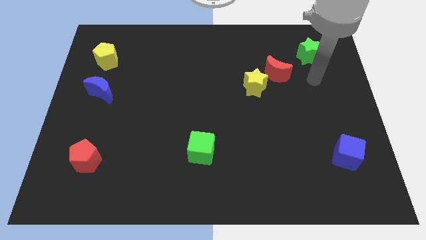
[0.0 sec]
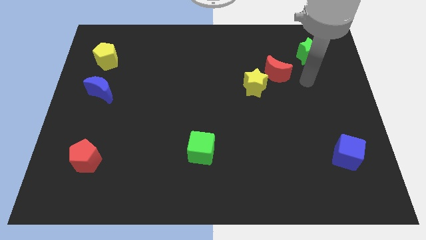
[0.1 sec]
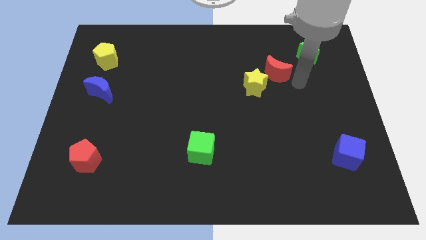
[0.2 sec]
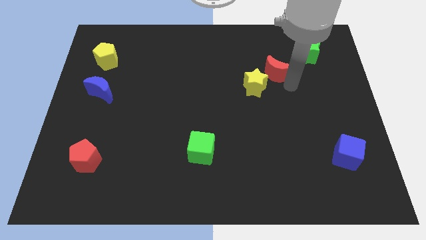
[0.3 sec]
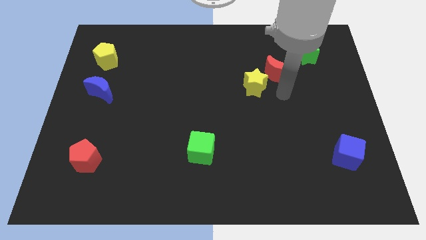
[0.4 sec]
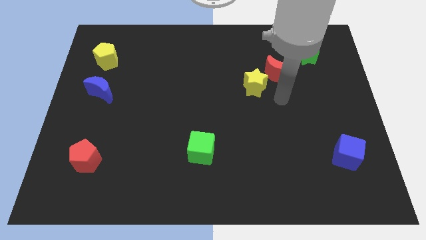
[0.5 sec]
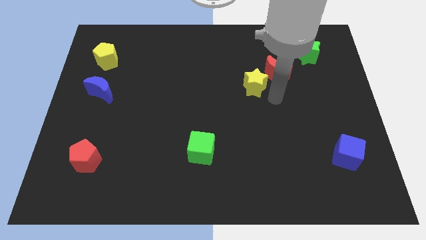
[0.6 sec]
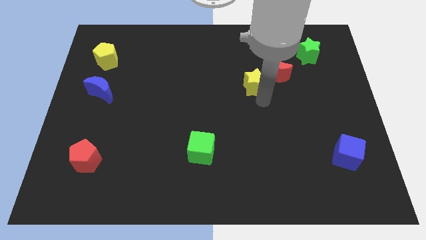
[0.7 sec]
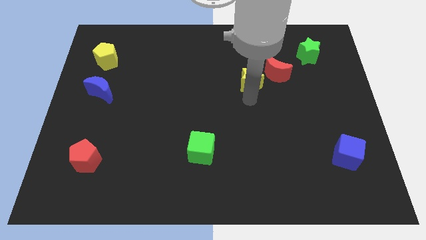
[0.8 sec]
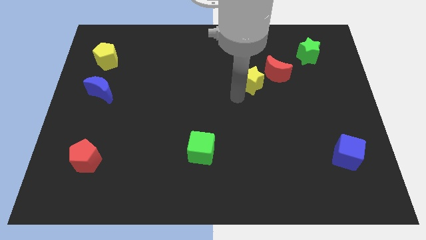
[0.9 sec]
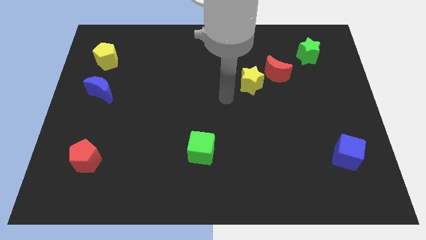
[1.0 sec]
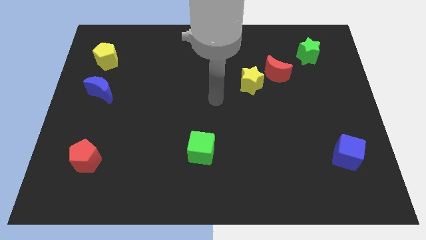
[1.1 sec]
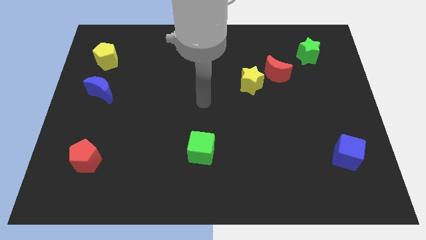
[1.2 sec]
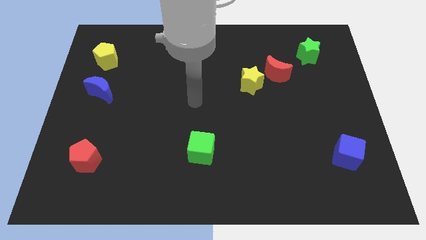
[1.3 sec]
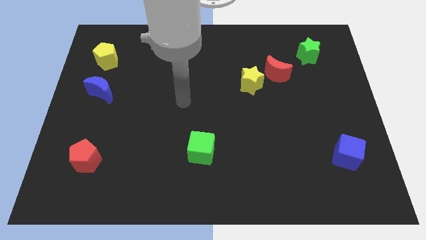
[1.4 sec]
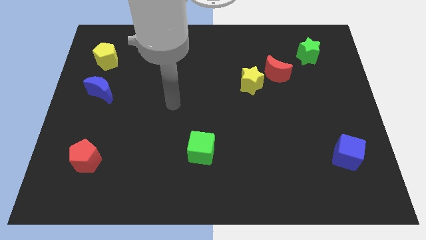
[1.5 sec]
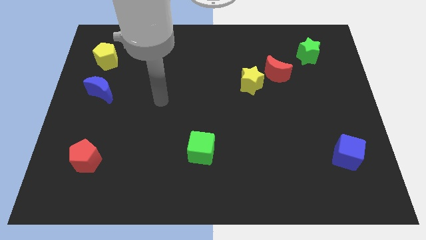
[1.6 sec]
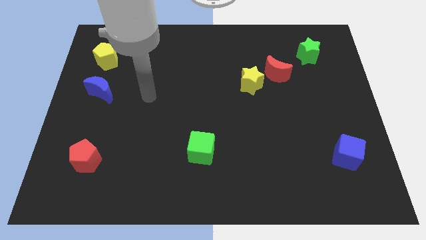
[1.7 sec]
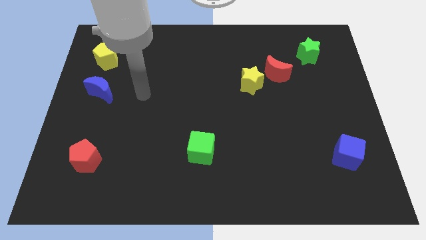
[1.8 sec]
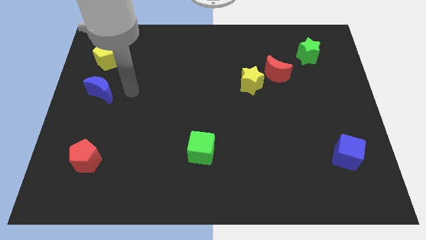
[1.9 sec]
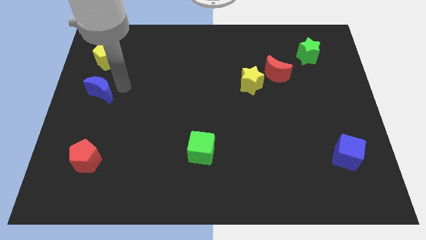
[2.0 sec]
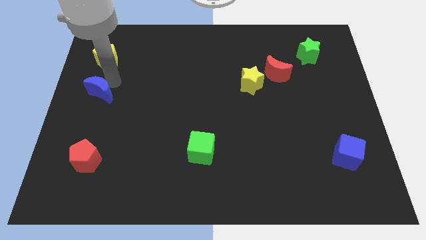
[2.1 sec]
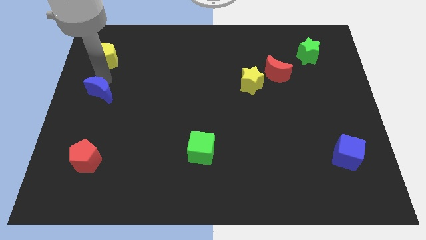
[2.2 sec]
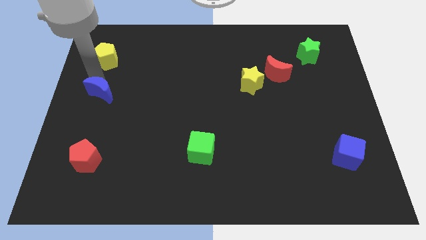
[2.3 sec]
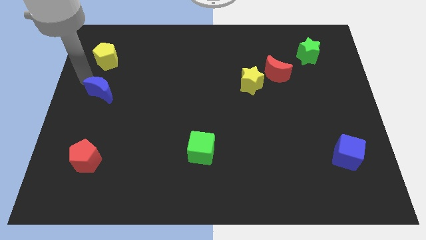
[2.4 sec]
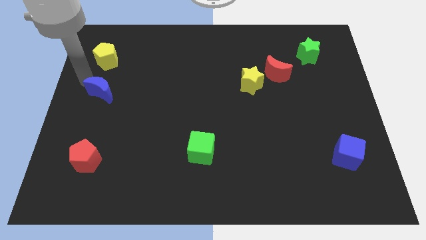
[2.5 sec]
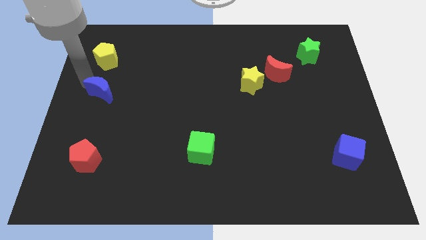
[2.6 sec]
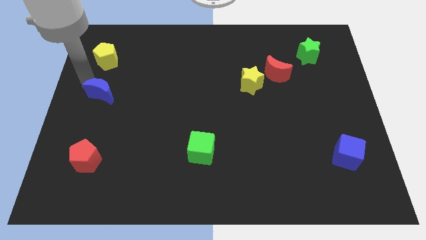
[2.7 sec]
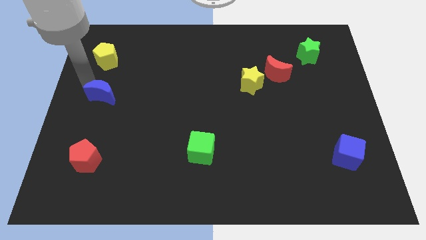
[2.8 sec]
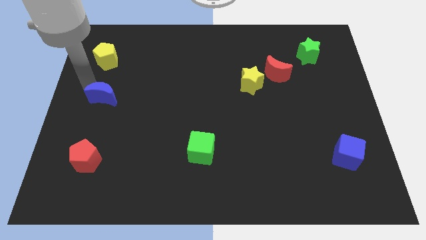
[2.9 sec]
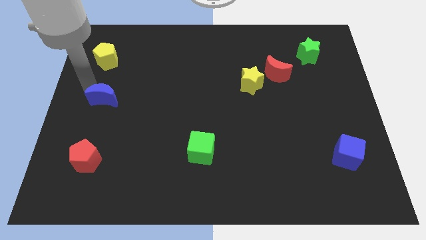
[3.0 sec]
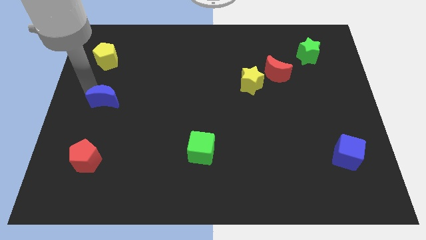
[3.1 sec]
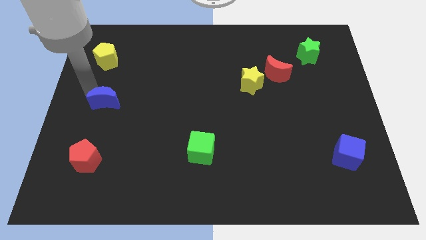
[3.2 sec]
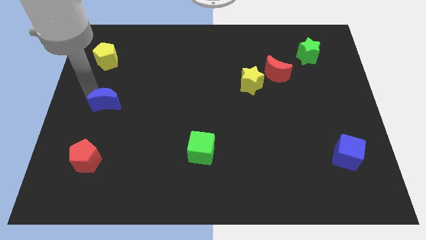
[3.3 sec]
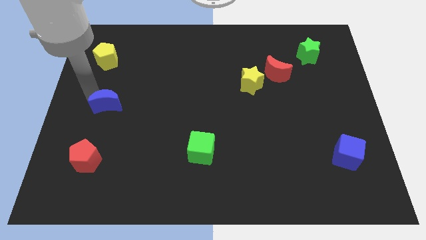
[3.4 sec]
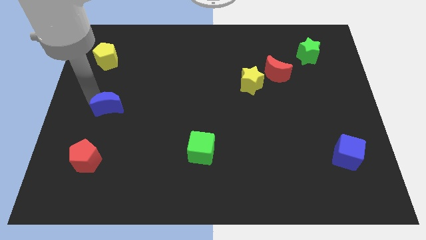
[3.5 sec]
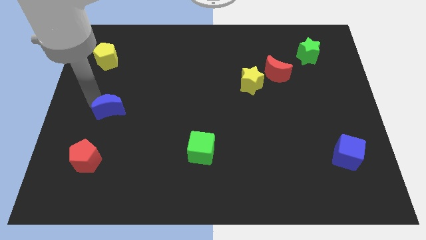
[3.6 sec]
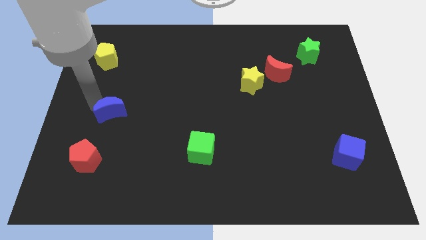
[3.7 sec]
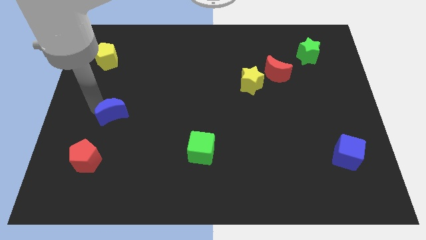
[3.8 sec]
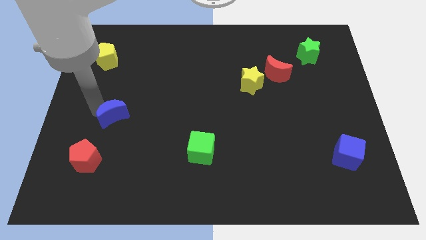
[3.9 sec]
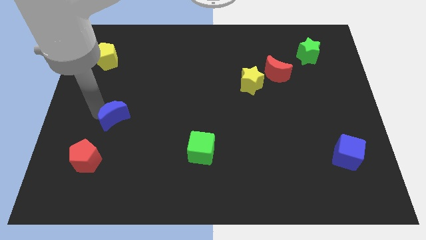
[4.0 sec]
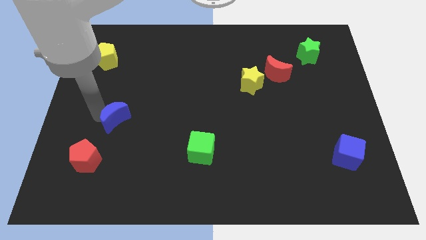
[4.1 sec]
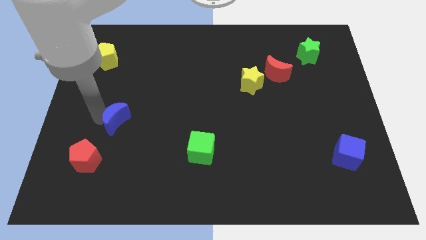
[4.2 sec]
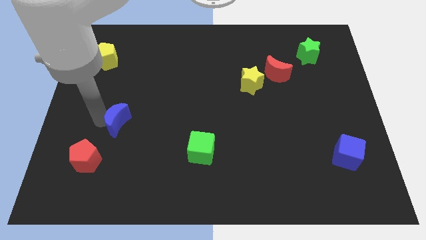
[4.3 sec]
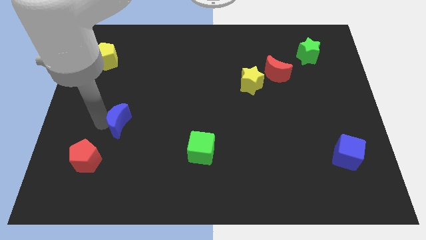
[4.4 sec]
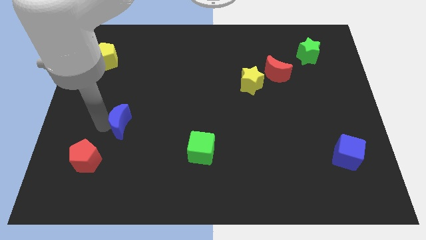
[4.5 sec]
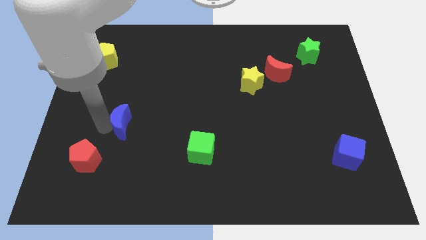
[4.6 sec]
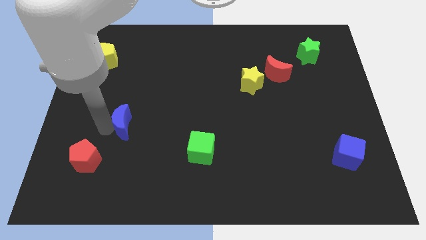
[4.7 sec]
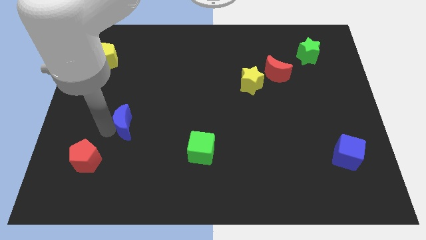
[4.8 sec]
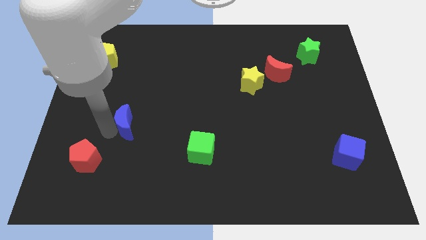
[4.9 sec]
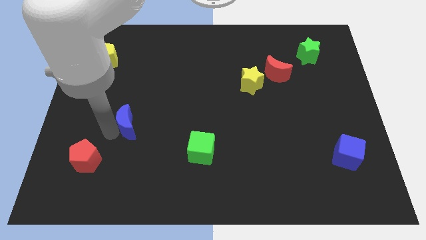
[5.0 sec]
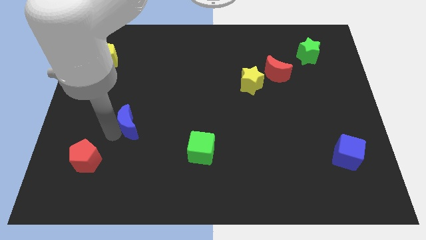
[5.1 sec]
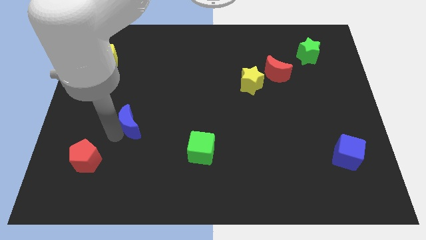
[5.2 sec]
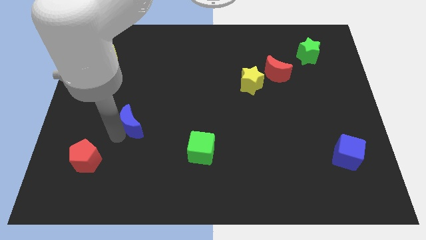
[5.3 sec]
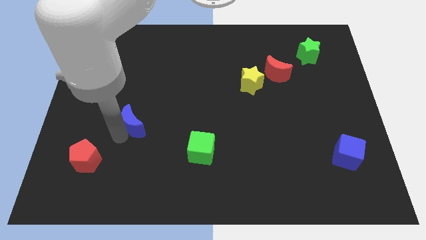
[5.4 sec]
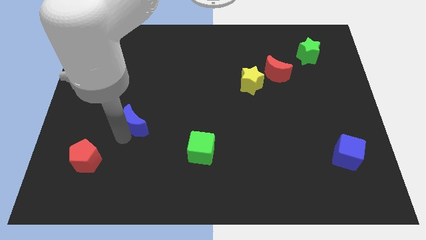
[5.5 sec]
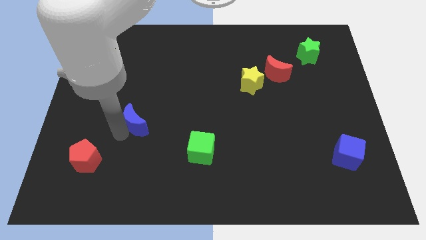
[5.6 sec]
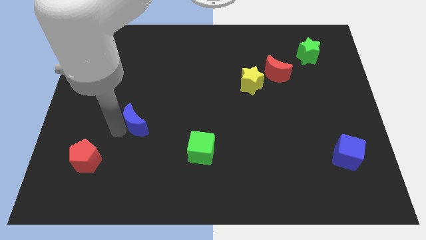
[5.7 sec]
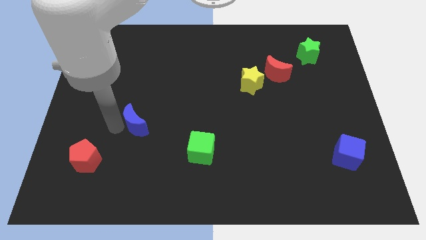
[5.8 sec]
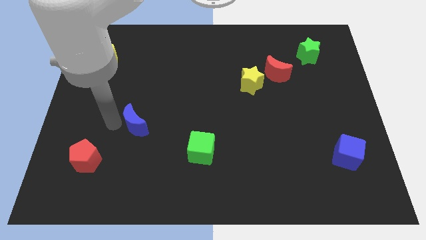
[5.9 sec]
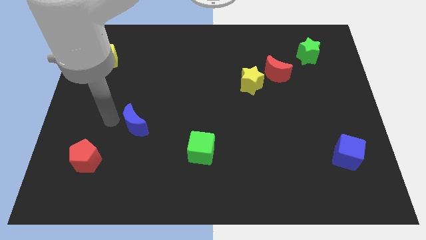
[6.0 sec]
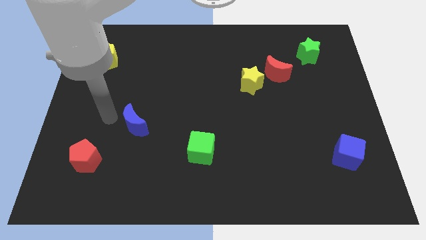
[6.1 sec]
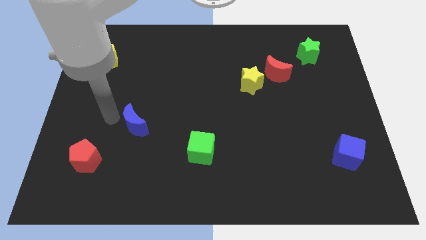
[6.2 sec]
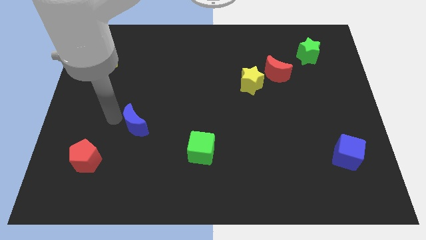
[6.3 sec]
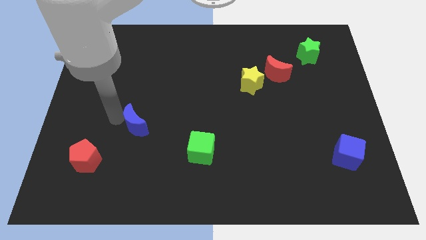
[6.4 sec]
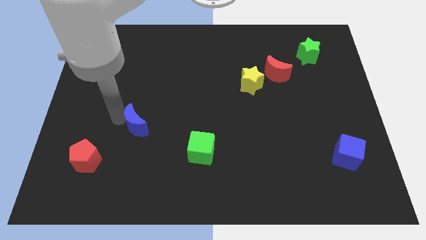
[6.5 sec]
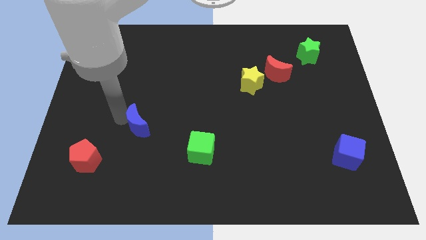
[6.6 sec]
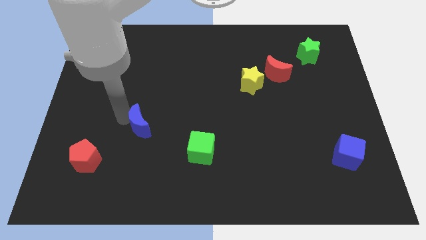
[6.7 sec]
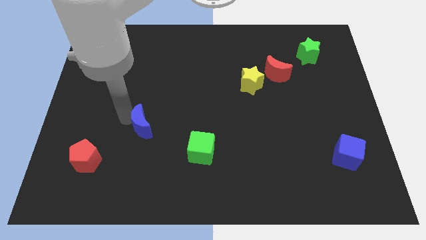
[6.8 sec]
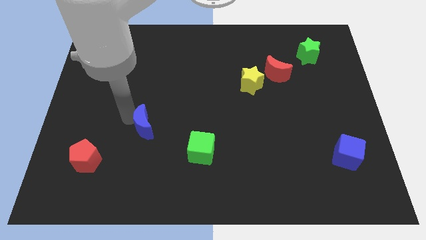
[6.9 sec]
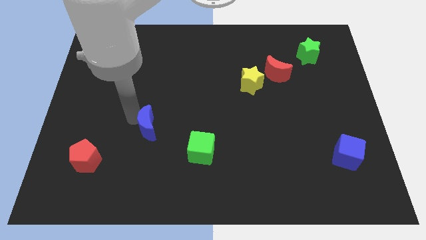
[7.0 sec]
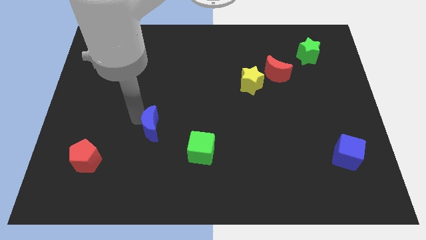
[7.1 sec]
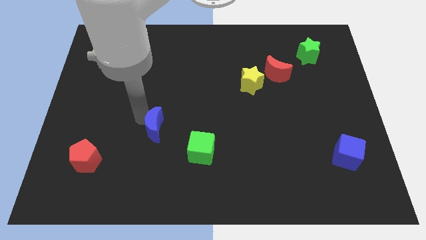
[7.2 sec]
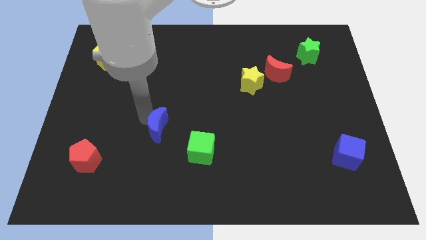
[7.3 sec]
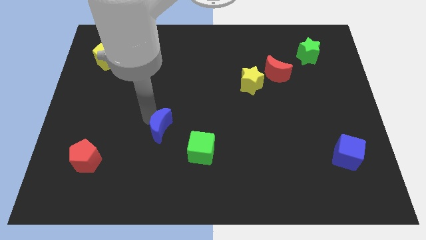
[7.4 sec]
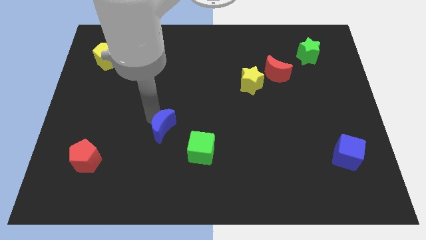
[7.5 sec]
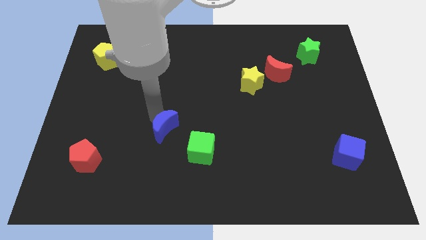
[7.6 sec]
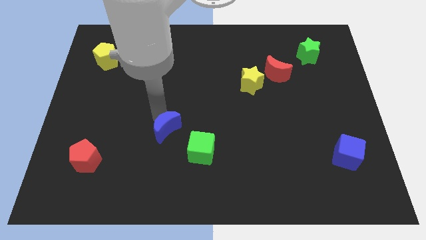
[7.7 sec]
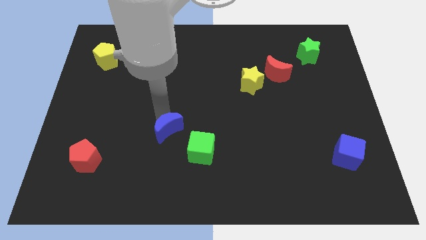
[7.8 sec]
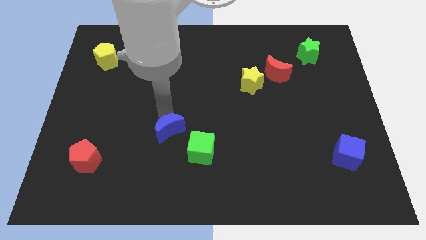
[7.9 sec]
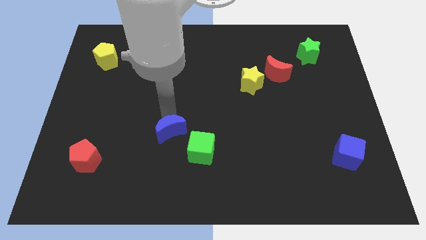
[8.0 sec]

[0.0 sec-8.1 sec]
push the blue moon downwards and to the right diagonally
